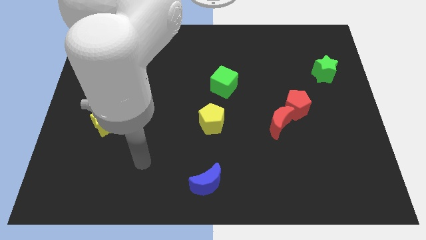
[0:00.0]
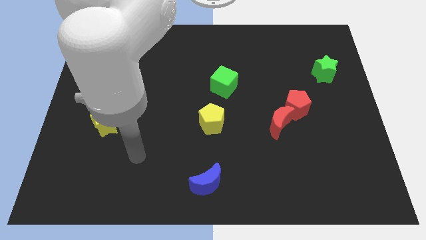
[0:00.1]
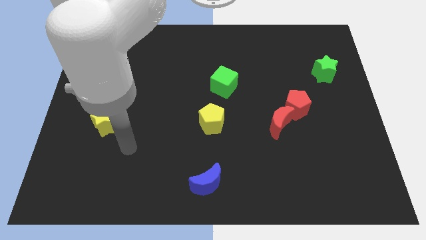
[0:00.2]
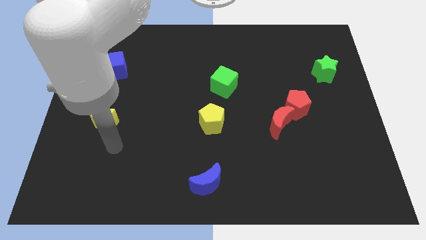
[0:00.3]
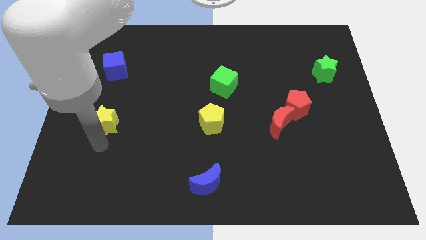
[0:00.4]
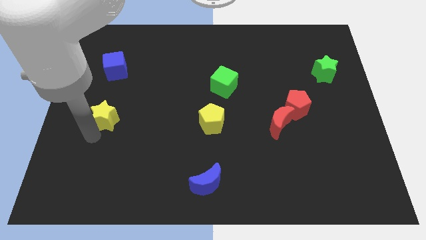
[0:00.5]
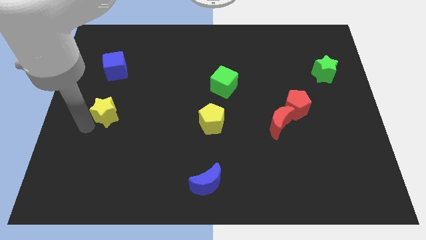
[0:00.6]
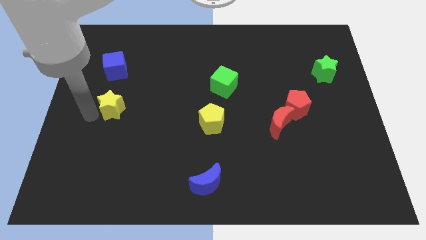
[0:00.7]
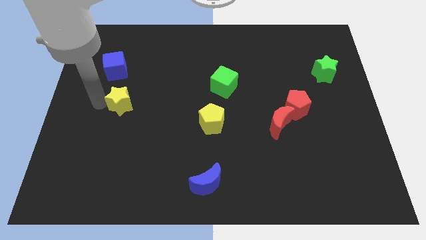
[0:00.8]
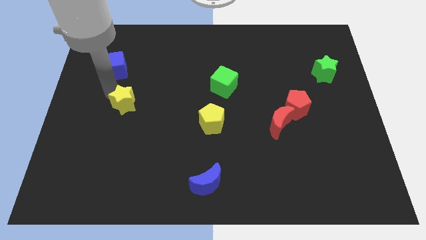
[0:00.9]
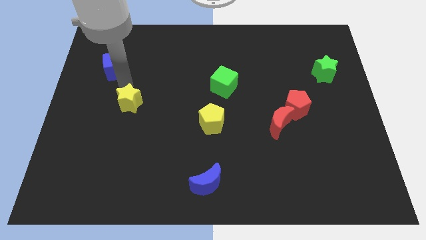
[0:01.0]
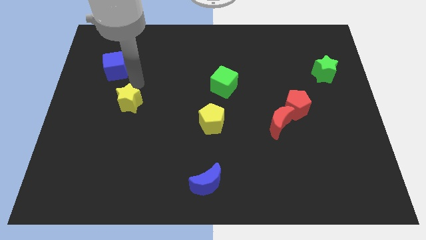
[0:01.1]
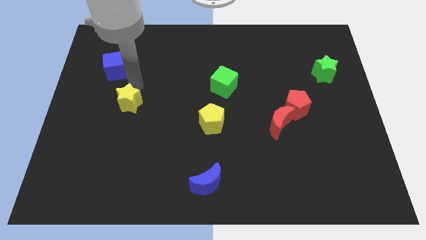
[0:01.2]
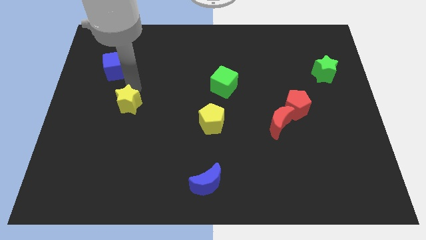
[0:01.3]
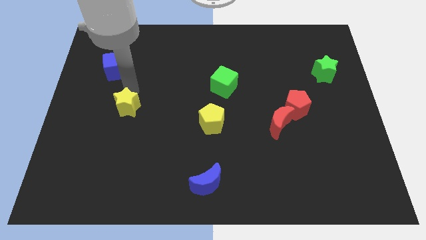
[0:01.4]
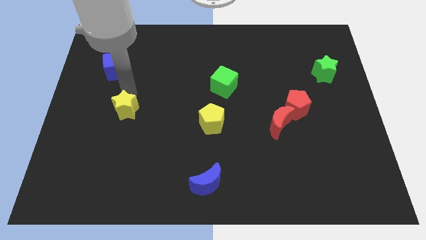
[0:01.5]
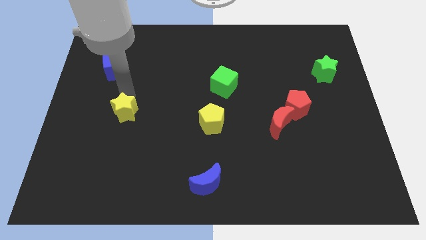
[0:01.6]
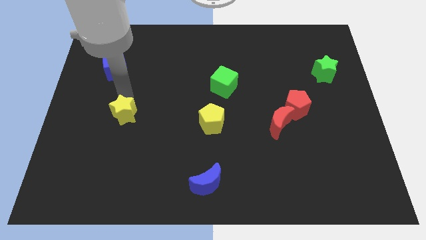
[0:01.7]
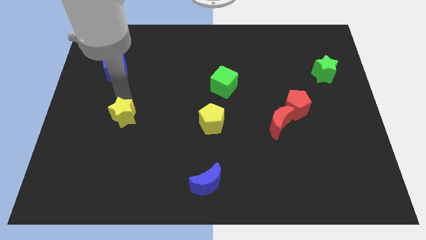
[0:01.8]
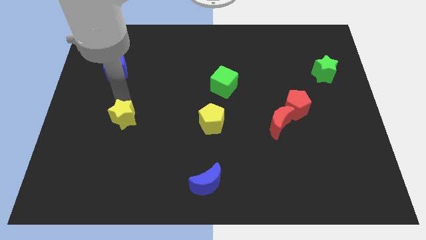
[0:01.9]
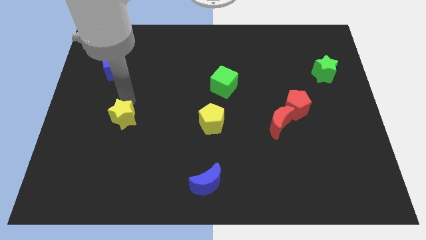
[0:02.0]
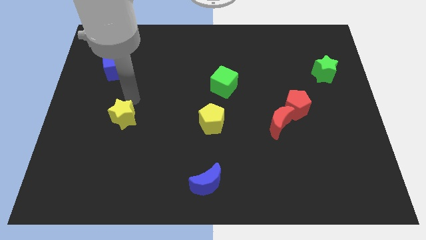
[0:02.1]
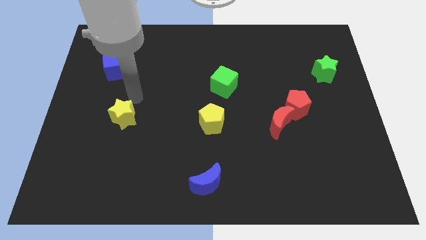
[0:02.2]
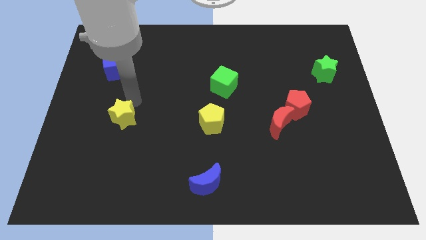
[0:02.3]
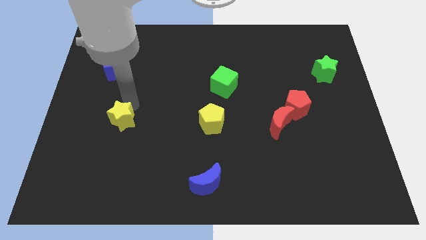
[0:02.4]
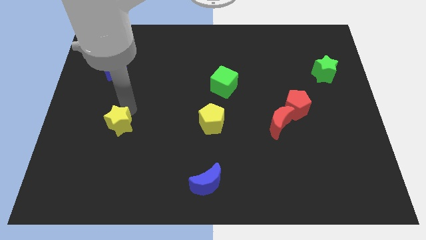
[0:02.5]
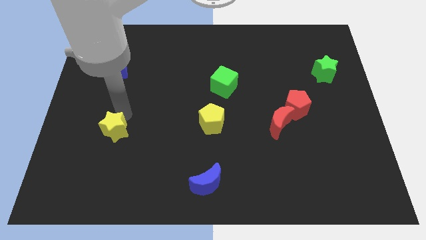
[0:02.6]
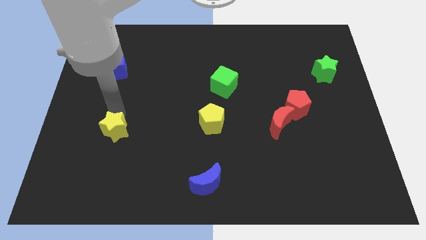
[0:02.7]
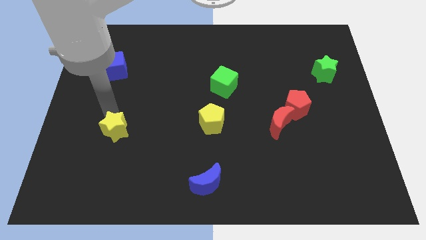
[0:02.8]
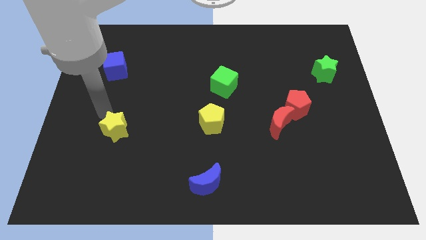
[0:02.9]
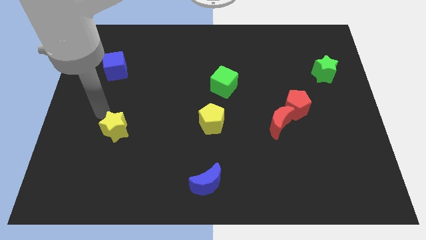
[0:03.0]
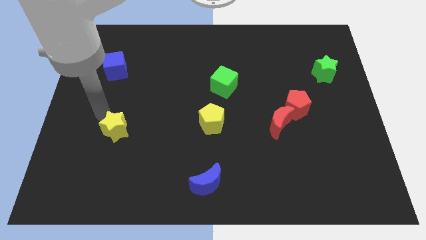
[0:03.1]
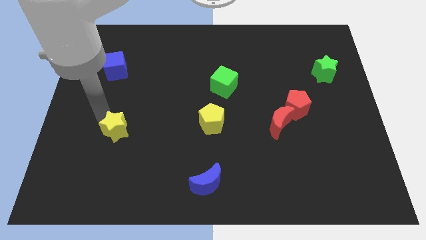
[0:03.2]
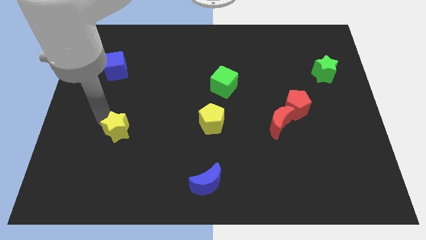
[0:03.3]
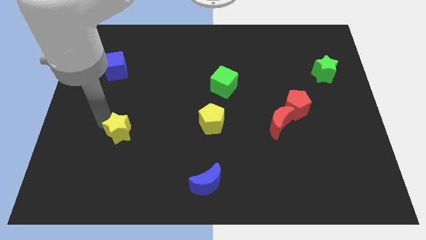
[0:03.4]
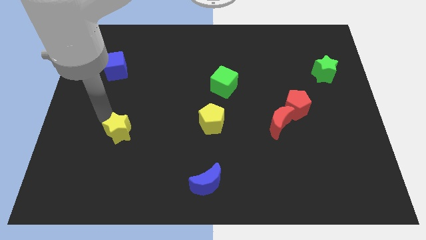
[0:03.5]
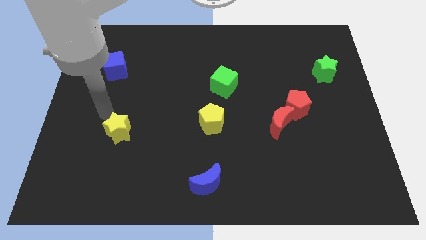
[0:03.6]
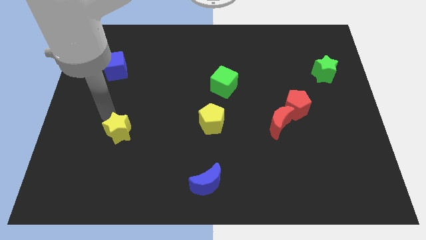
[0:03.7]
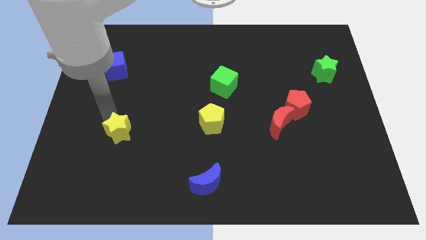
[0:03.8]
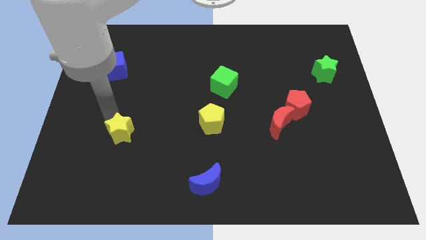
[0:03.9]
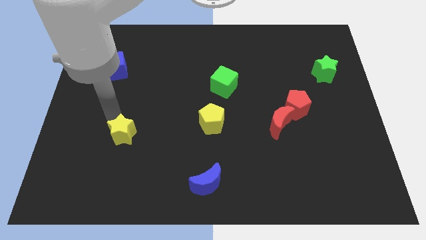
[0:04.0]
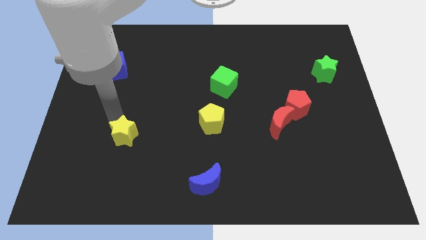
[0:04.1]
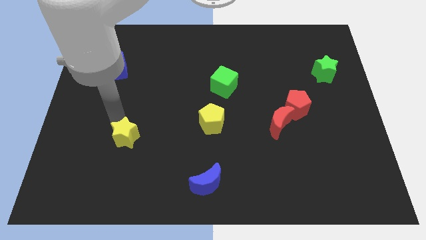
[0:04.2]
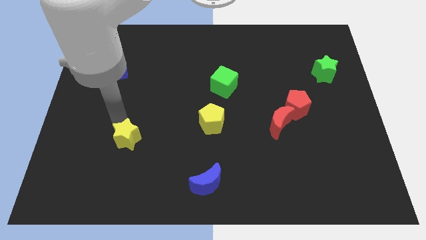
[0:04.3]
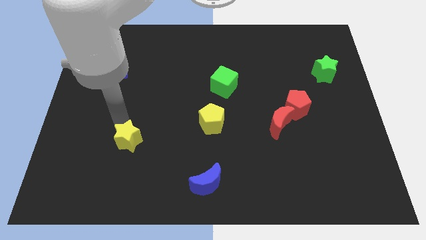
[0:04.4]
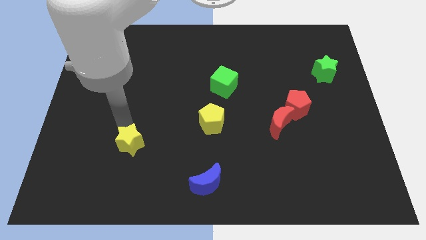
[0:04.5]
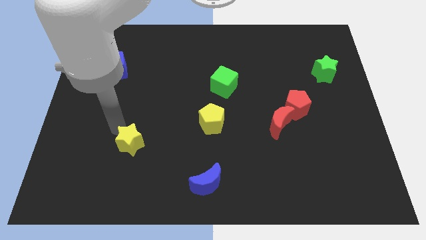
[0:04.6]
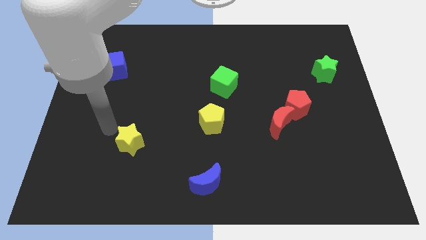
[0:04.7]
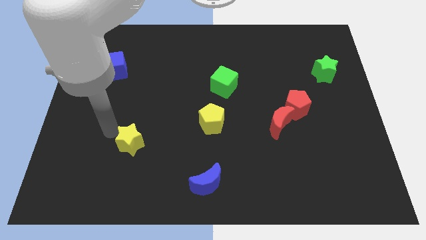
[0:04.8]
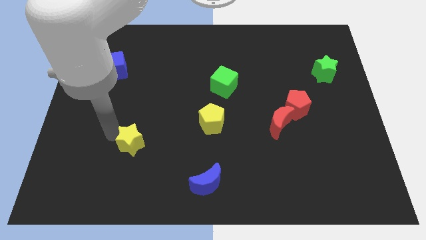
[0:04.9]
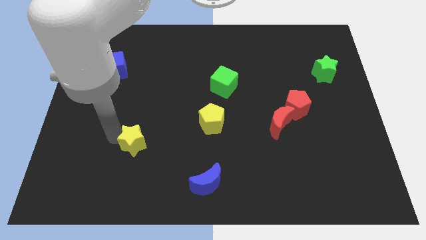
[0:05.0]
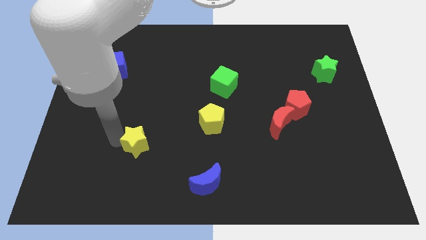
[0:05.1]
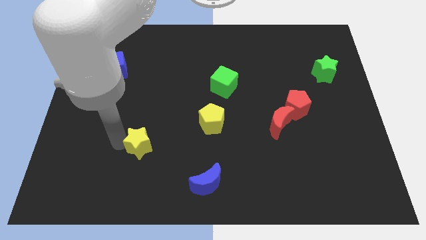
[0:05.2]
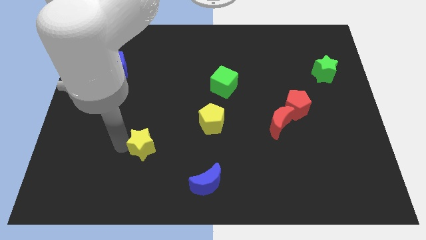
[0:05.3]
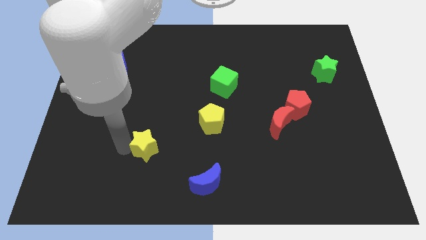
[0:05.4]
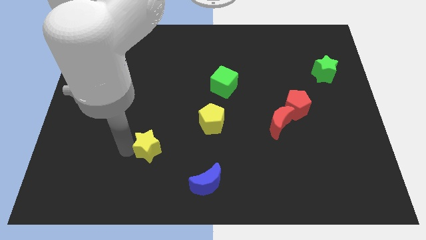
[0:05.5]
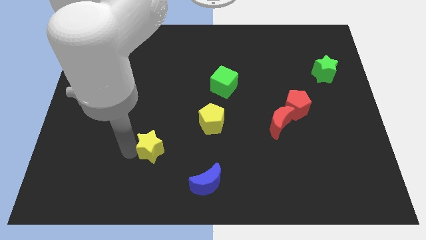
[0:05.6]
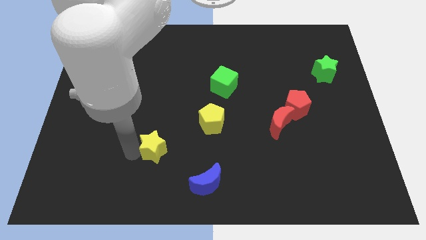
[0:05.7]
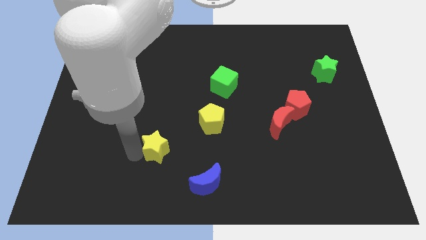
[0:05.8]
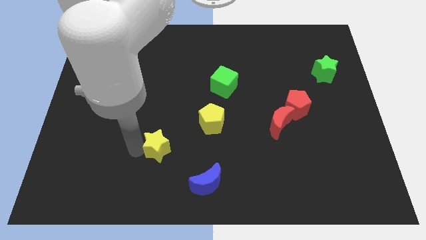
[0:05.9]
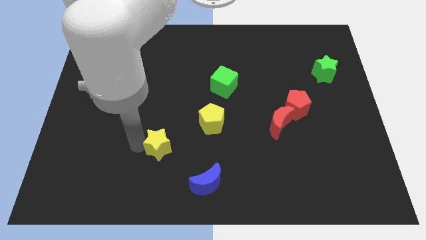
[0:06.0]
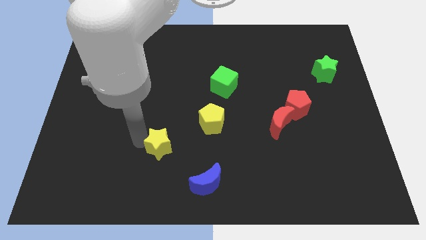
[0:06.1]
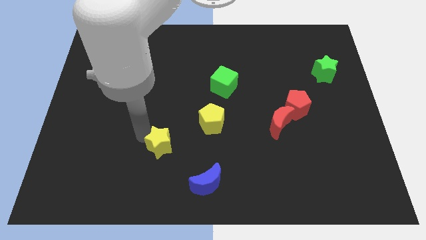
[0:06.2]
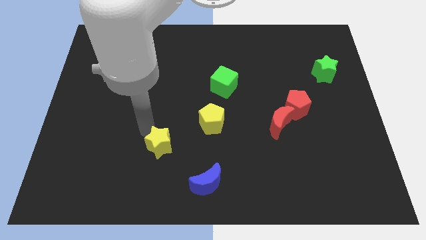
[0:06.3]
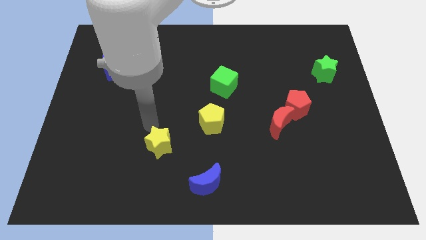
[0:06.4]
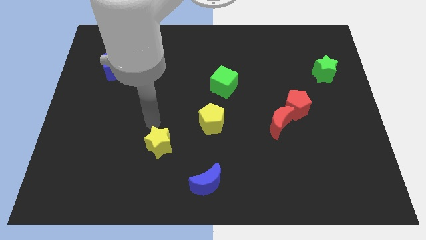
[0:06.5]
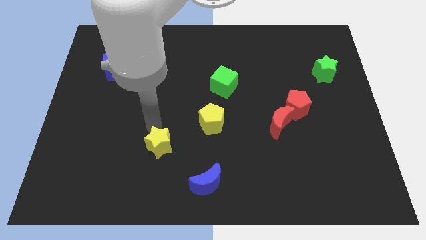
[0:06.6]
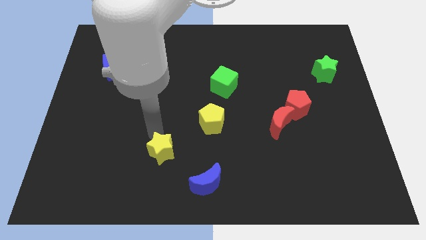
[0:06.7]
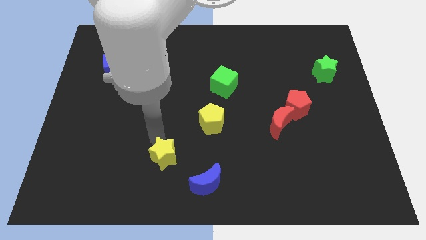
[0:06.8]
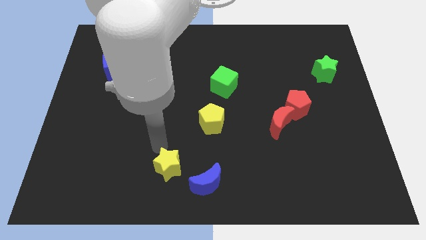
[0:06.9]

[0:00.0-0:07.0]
put the yellow star to the bottom side
